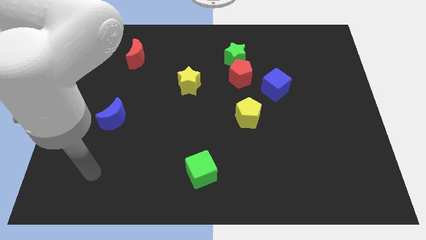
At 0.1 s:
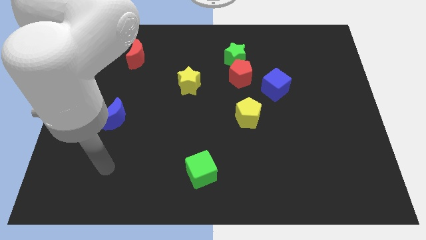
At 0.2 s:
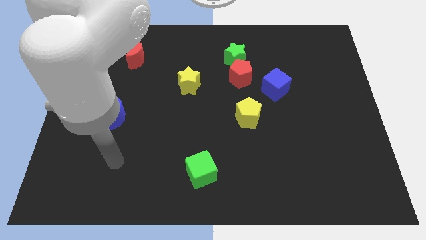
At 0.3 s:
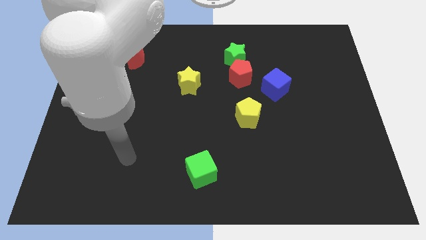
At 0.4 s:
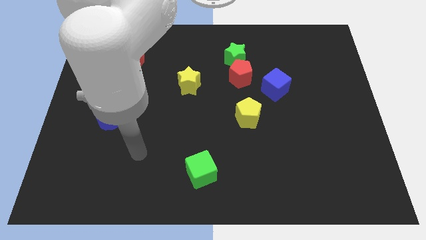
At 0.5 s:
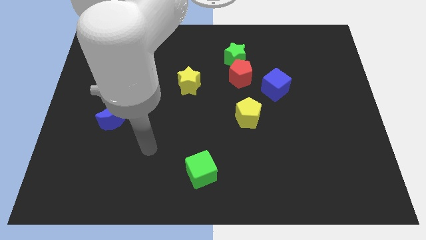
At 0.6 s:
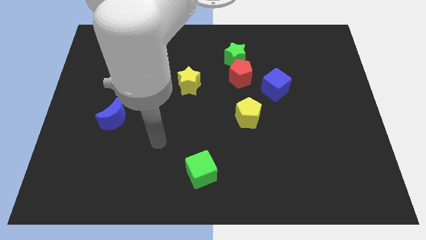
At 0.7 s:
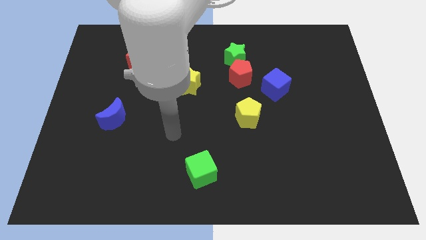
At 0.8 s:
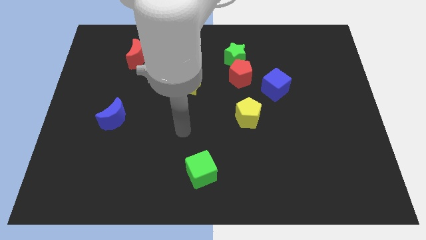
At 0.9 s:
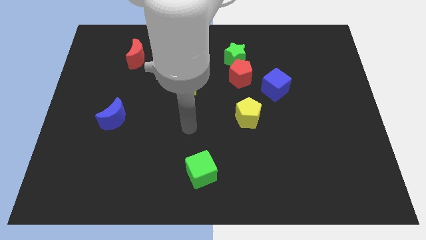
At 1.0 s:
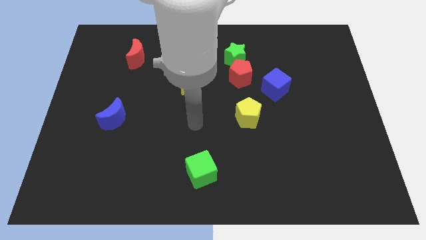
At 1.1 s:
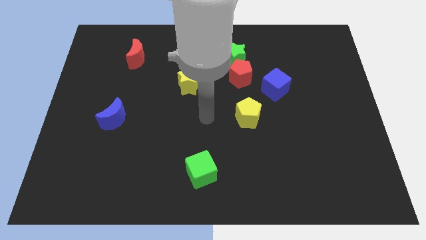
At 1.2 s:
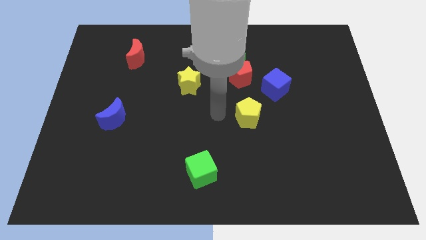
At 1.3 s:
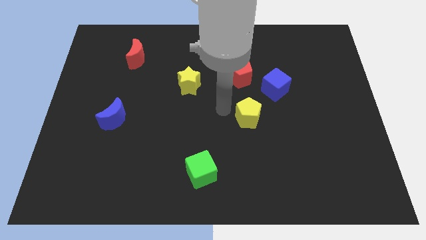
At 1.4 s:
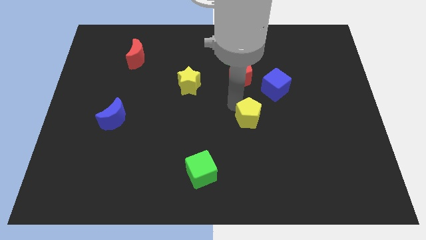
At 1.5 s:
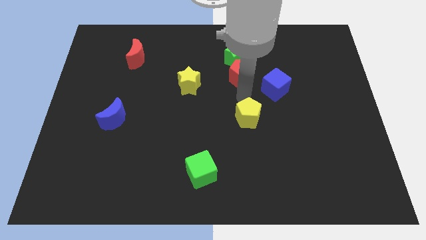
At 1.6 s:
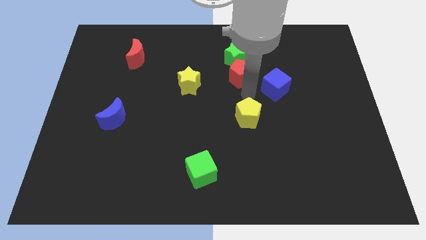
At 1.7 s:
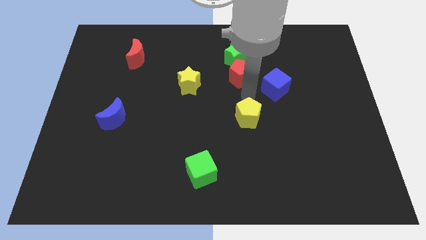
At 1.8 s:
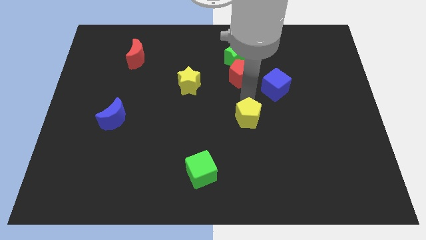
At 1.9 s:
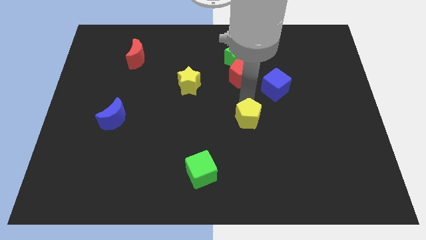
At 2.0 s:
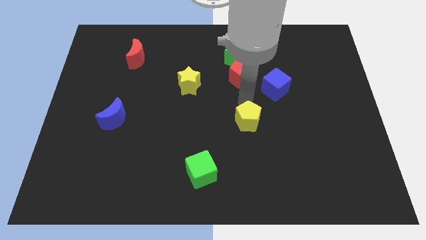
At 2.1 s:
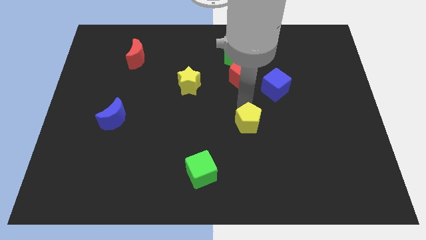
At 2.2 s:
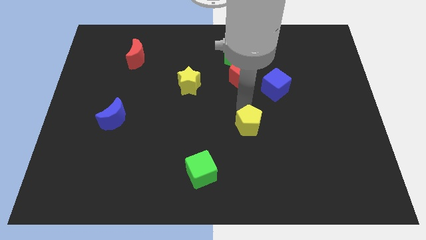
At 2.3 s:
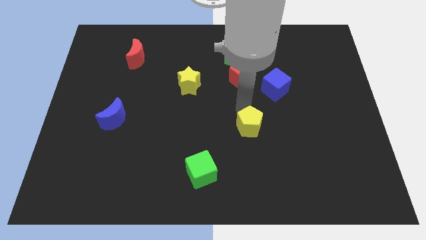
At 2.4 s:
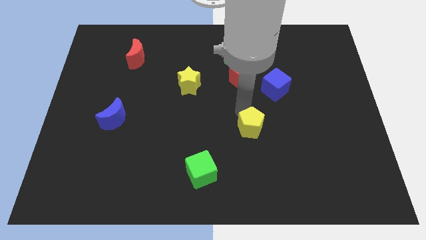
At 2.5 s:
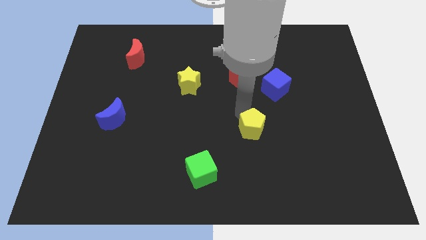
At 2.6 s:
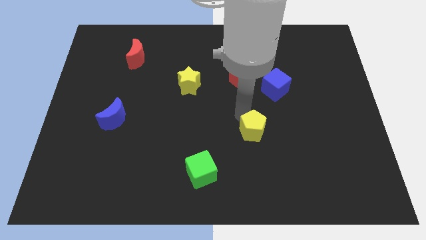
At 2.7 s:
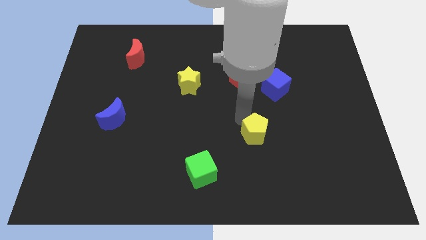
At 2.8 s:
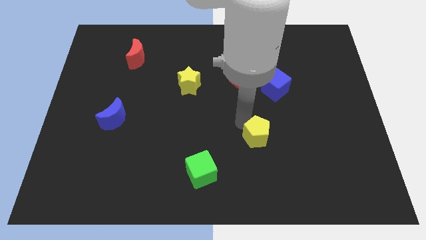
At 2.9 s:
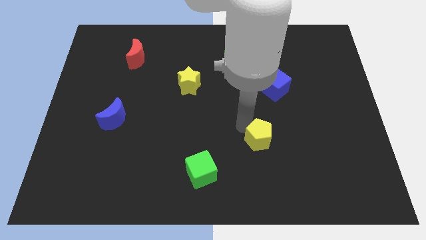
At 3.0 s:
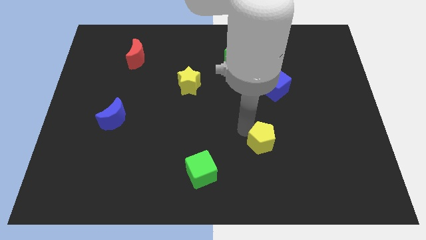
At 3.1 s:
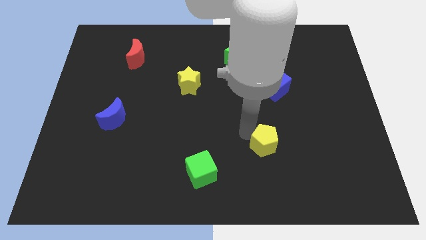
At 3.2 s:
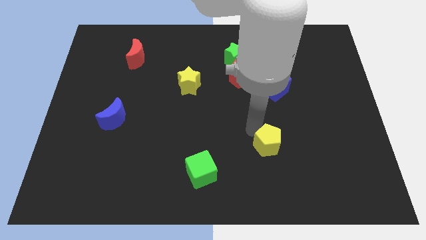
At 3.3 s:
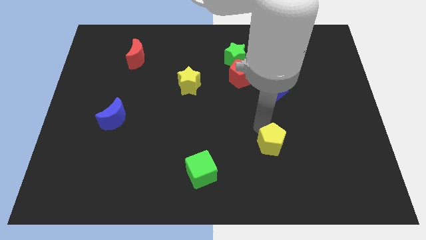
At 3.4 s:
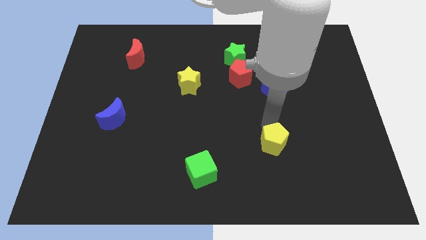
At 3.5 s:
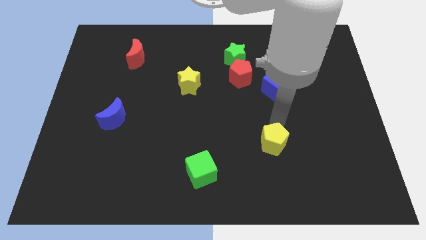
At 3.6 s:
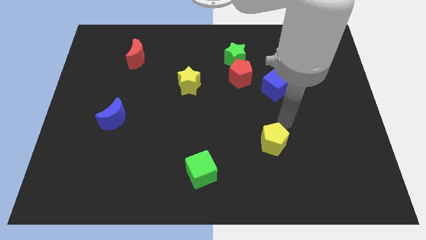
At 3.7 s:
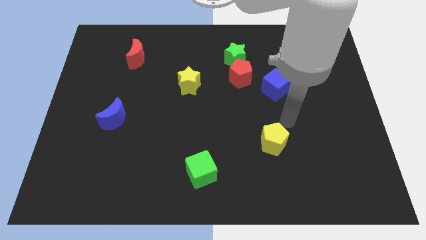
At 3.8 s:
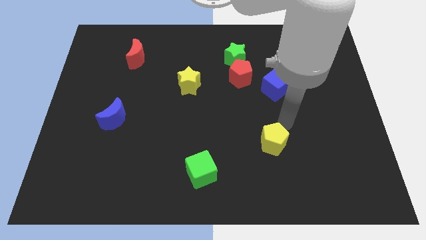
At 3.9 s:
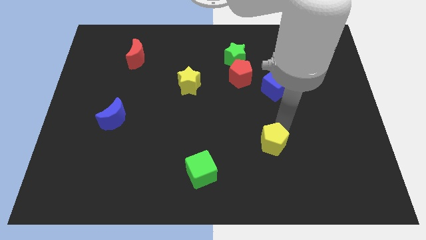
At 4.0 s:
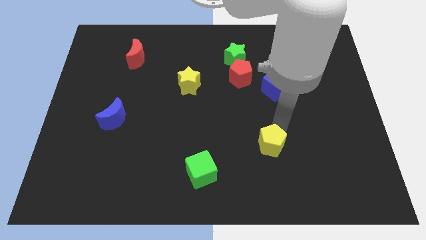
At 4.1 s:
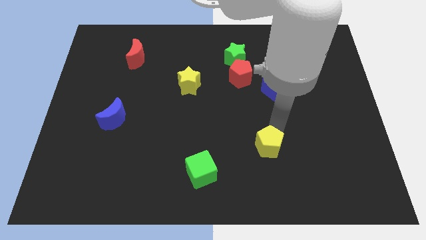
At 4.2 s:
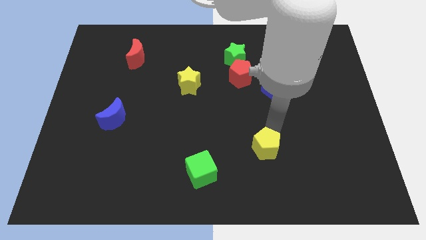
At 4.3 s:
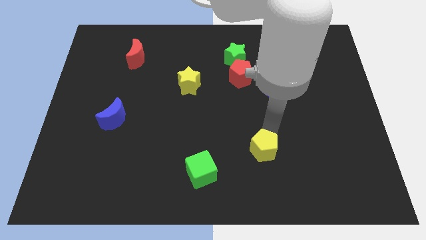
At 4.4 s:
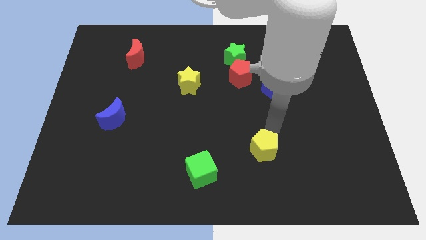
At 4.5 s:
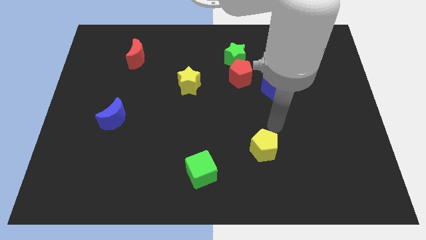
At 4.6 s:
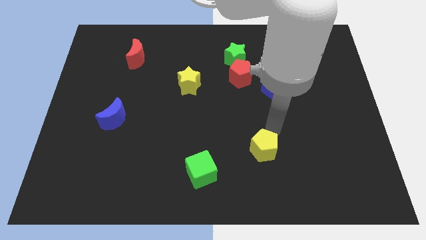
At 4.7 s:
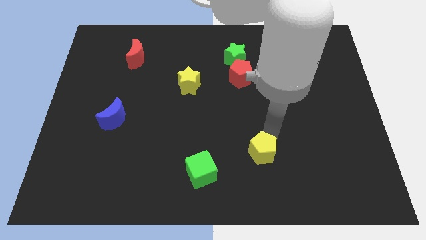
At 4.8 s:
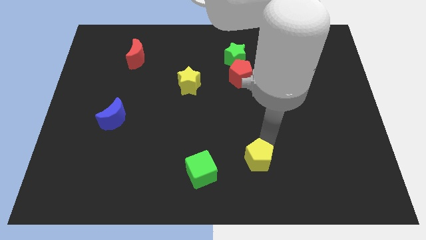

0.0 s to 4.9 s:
put the yellow pentagon to the right side of the green cube

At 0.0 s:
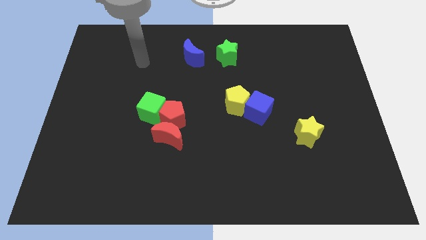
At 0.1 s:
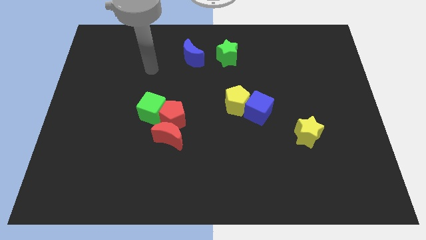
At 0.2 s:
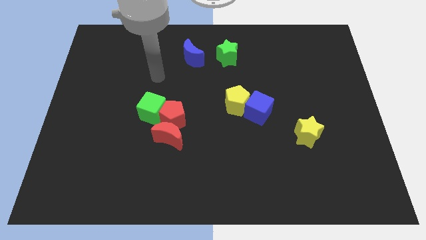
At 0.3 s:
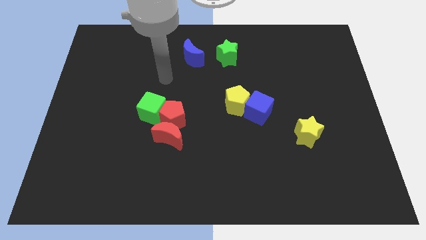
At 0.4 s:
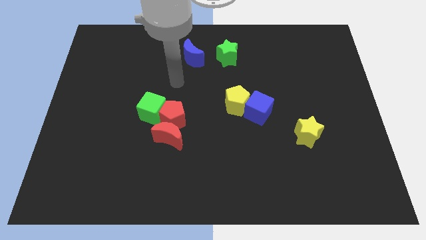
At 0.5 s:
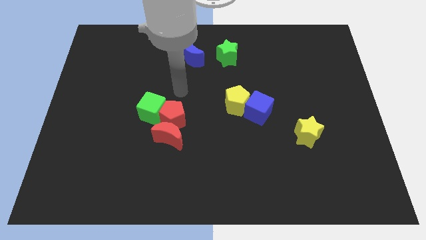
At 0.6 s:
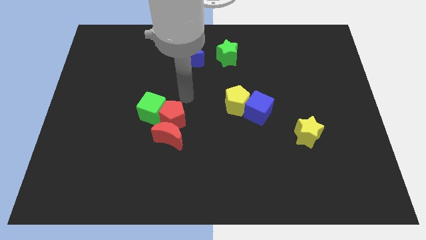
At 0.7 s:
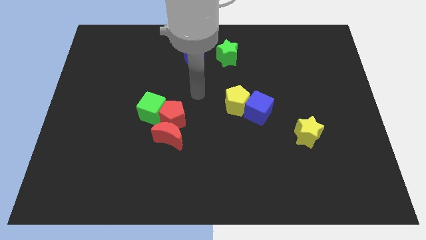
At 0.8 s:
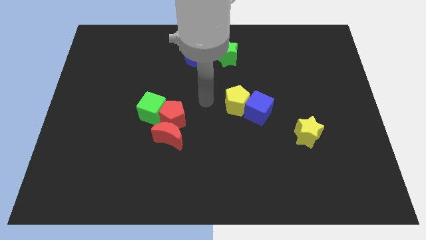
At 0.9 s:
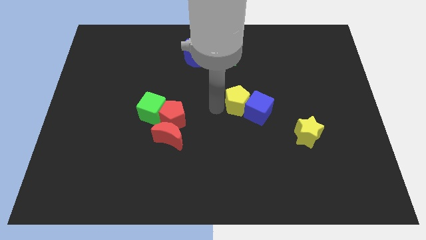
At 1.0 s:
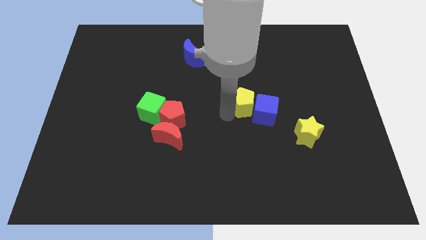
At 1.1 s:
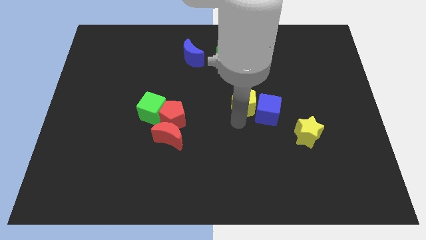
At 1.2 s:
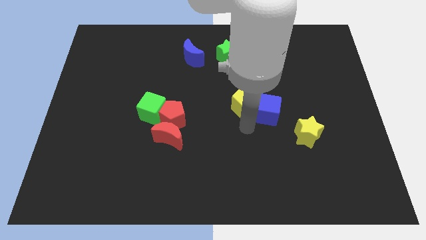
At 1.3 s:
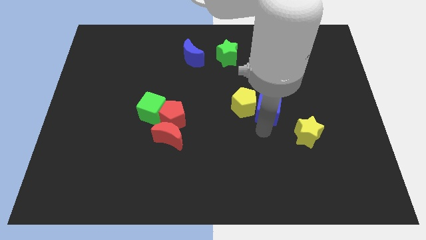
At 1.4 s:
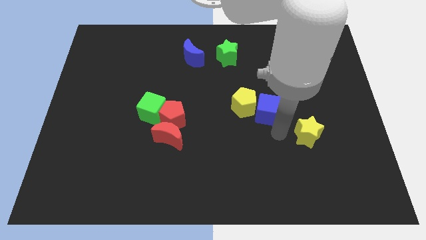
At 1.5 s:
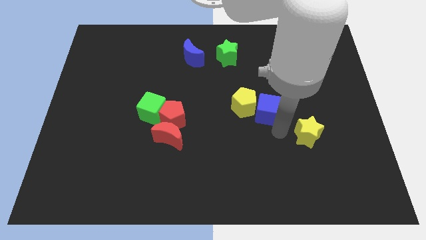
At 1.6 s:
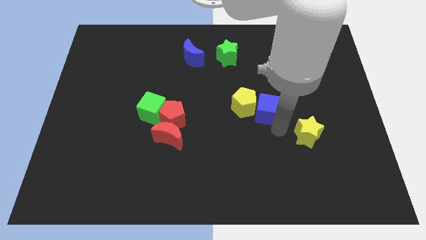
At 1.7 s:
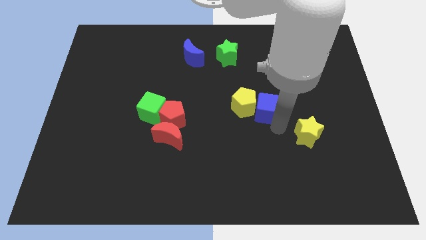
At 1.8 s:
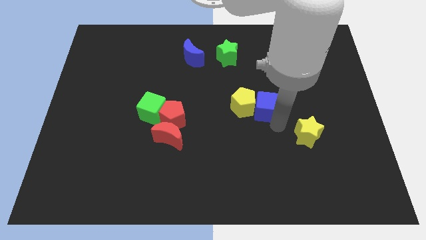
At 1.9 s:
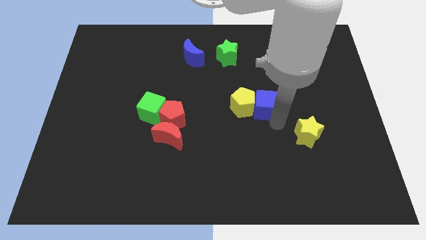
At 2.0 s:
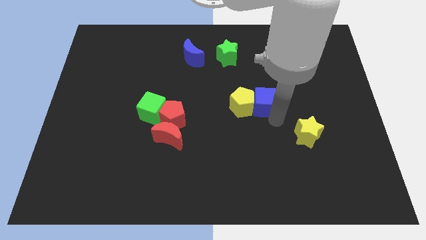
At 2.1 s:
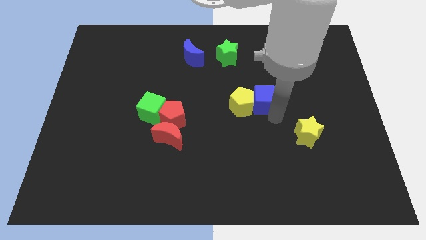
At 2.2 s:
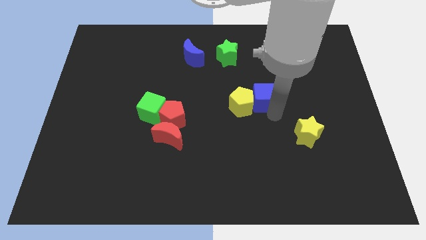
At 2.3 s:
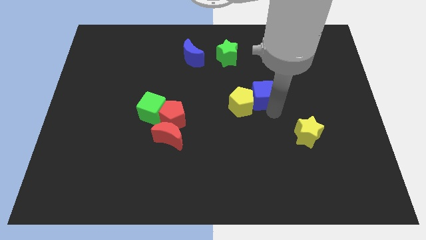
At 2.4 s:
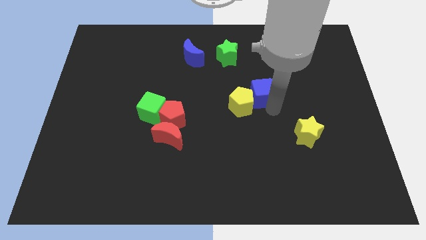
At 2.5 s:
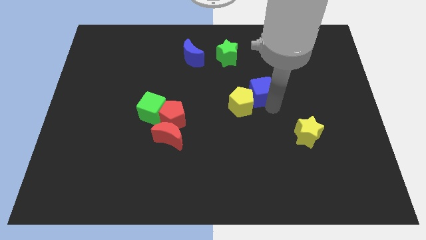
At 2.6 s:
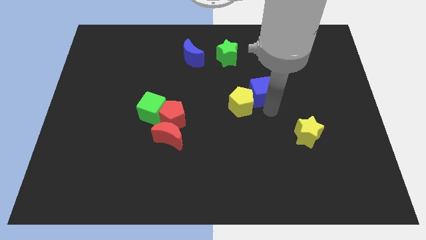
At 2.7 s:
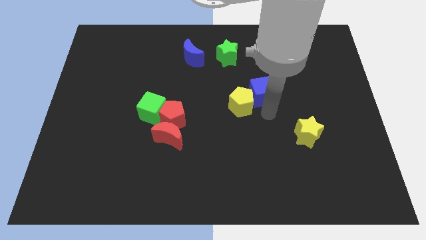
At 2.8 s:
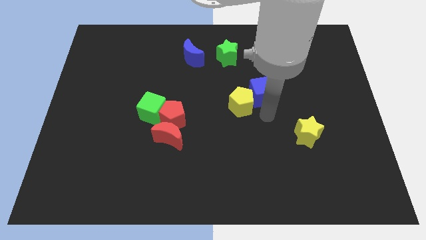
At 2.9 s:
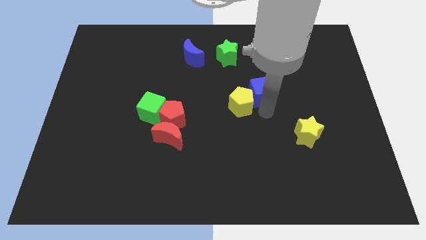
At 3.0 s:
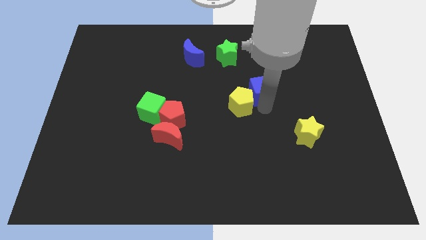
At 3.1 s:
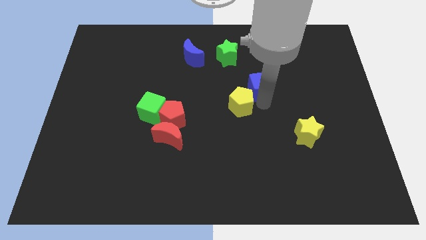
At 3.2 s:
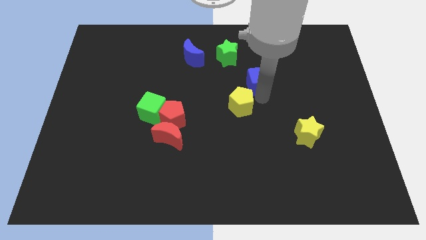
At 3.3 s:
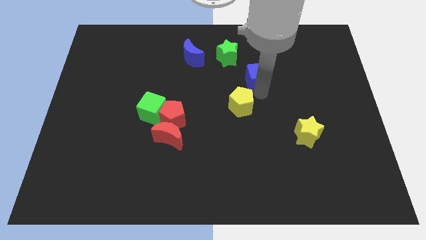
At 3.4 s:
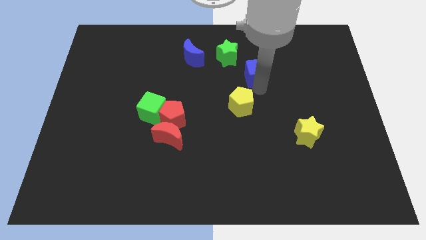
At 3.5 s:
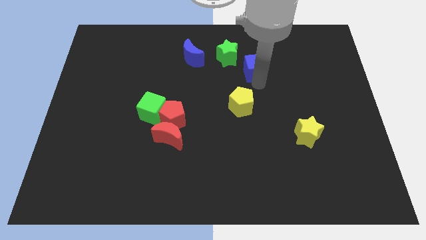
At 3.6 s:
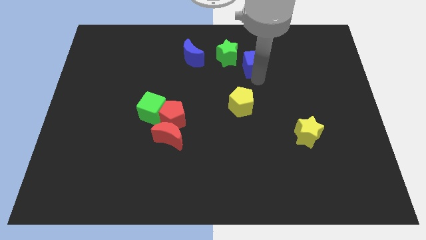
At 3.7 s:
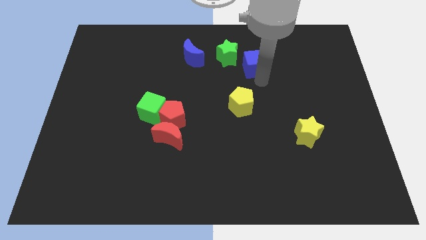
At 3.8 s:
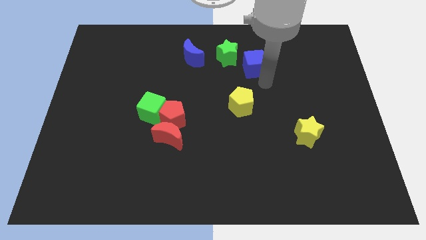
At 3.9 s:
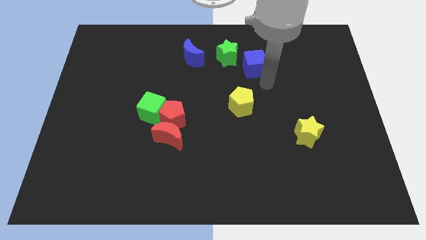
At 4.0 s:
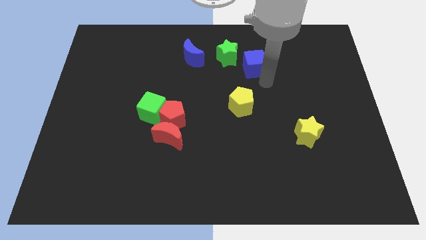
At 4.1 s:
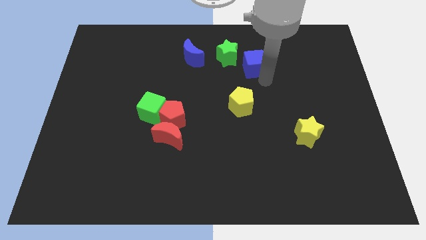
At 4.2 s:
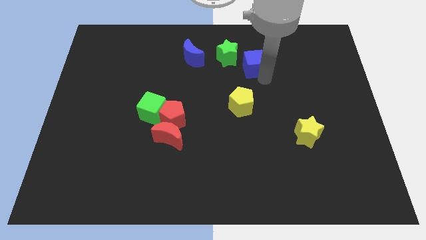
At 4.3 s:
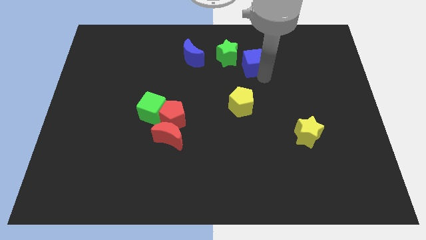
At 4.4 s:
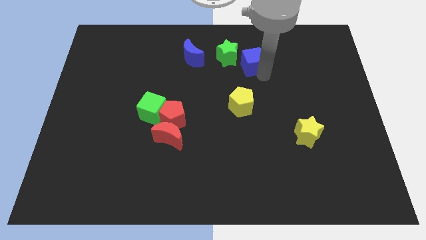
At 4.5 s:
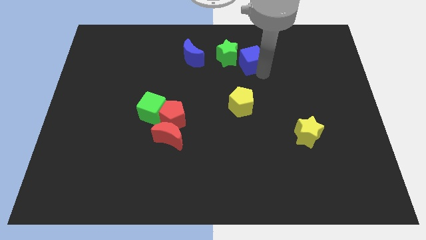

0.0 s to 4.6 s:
put the blue cube to the right side of the blue moon
